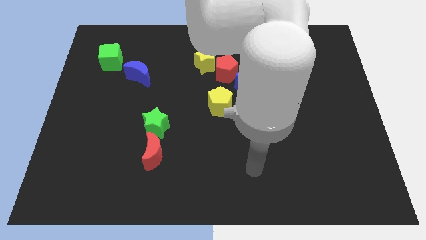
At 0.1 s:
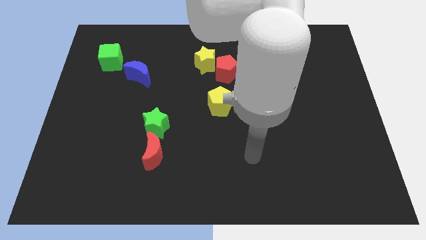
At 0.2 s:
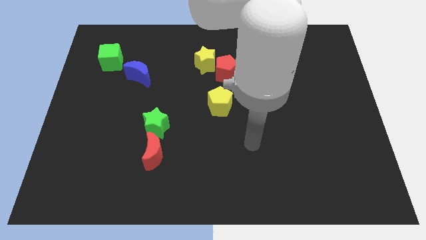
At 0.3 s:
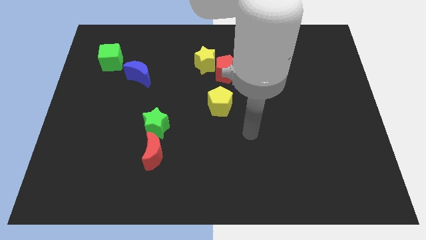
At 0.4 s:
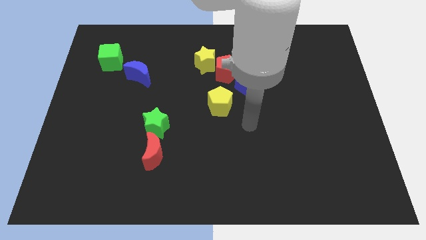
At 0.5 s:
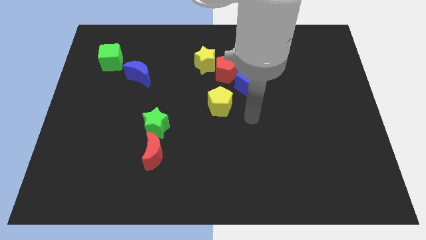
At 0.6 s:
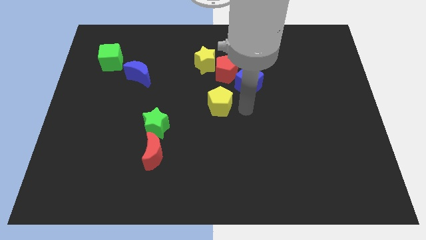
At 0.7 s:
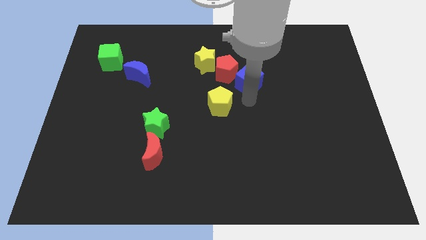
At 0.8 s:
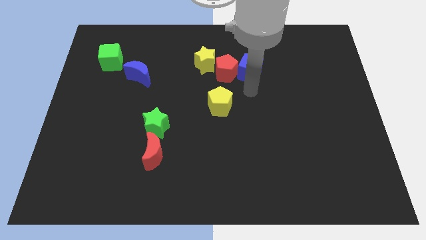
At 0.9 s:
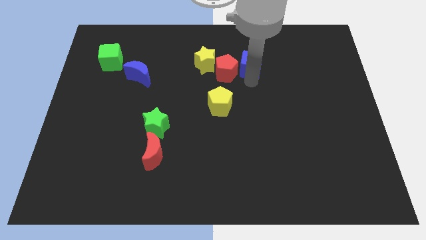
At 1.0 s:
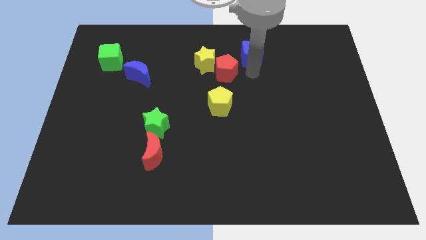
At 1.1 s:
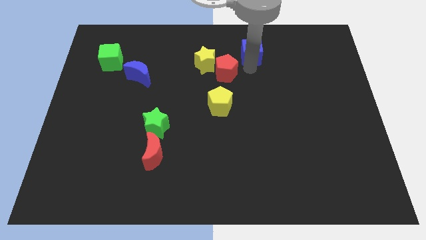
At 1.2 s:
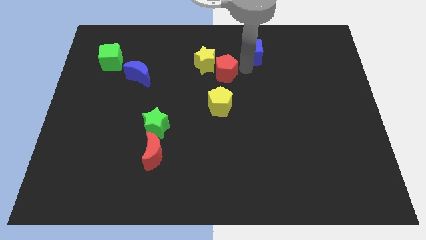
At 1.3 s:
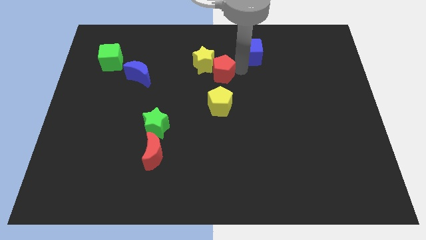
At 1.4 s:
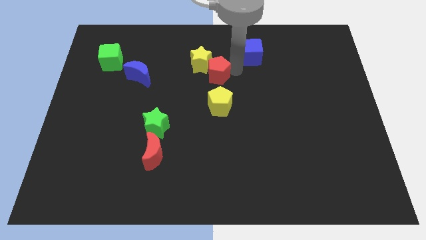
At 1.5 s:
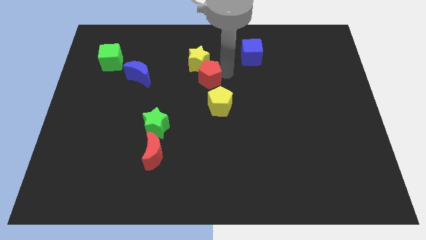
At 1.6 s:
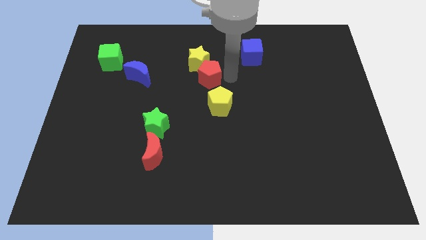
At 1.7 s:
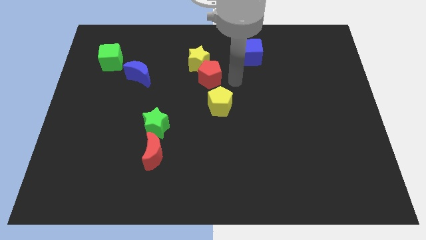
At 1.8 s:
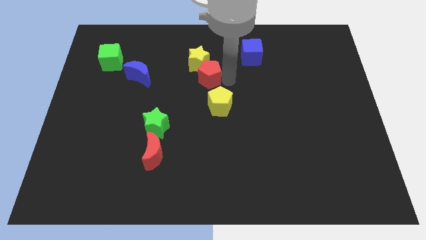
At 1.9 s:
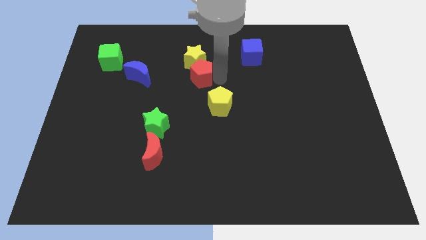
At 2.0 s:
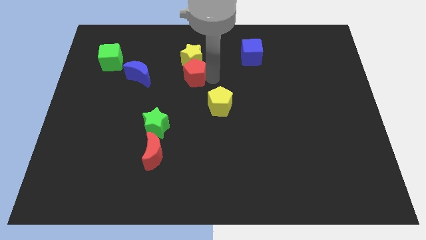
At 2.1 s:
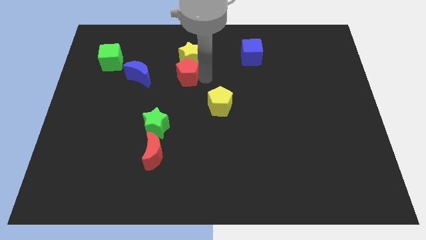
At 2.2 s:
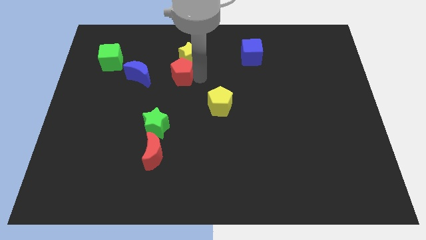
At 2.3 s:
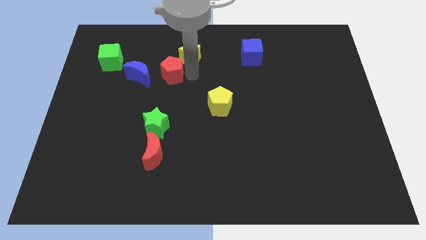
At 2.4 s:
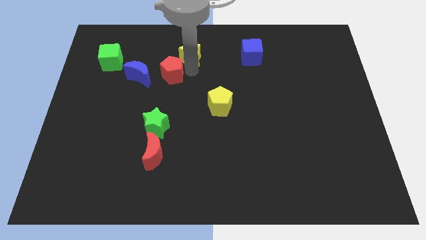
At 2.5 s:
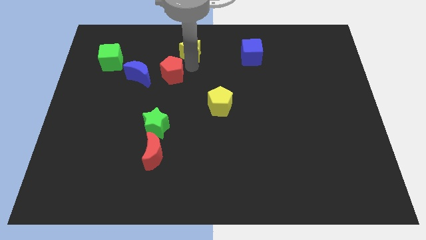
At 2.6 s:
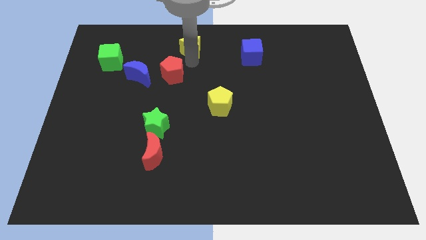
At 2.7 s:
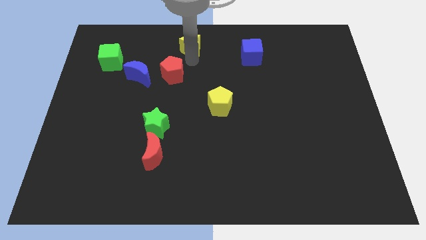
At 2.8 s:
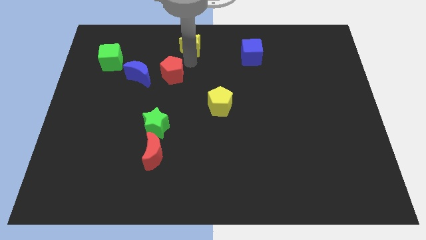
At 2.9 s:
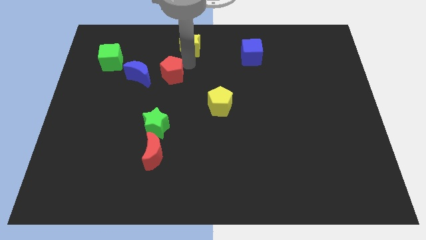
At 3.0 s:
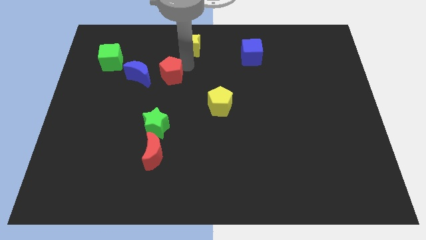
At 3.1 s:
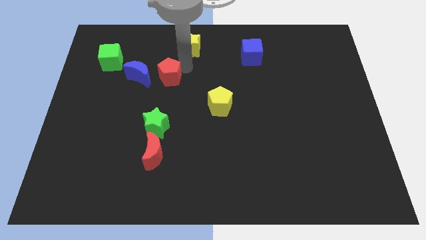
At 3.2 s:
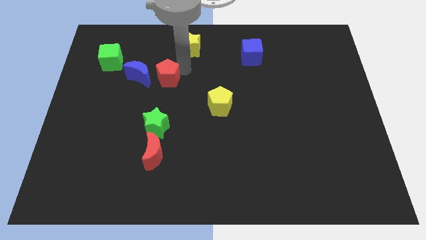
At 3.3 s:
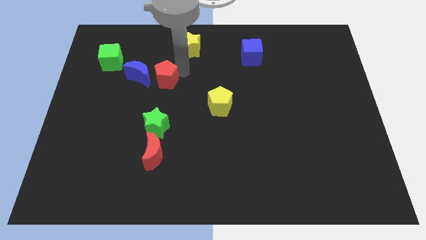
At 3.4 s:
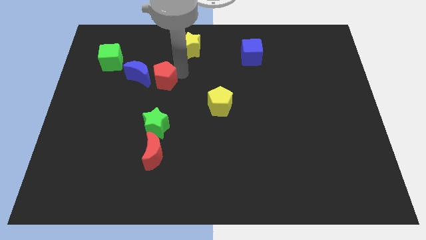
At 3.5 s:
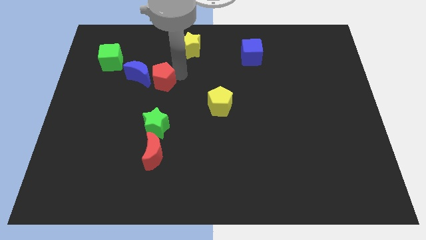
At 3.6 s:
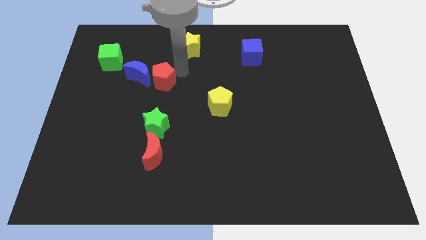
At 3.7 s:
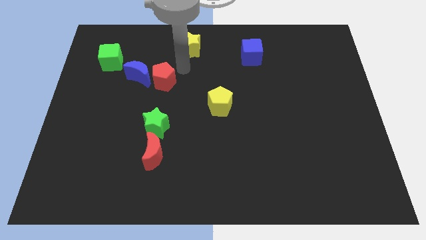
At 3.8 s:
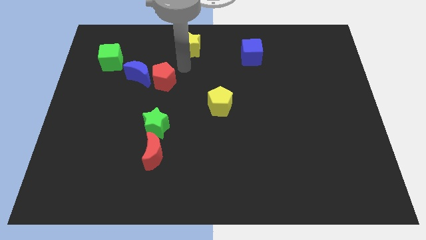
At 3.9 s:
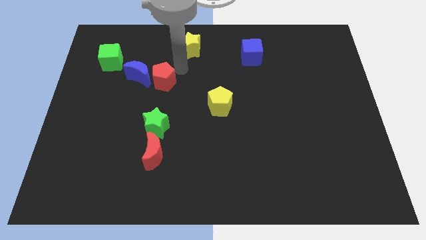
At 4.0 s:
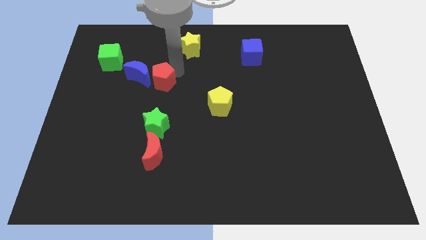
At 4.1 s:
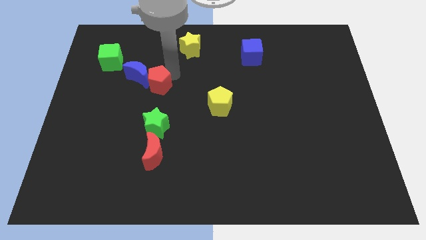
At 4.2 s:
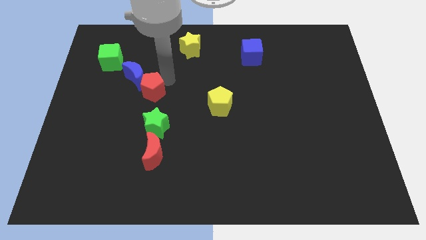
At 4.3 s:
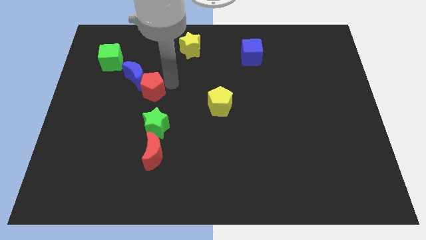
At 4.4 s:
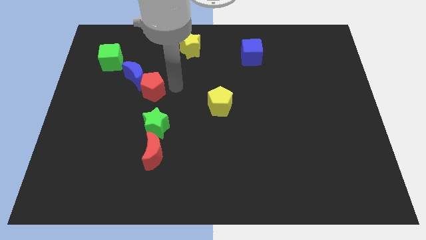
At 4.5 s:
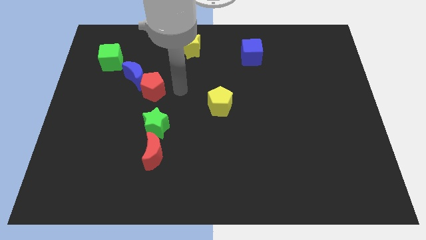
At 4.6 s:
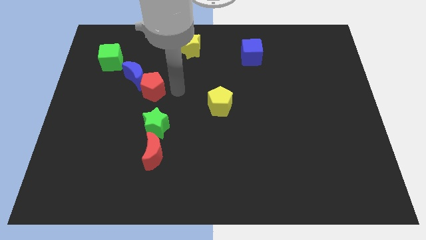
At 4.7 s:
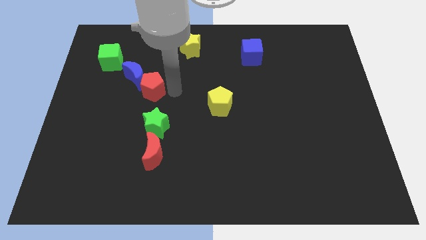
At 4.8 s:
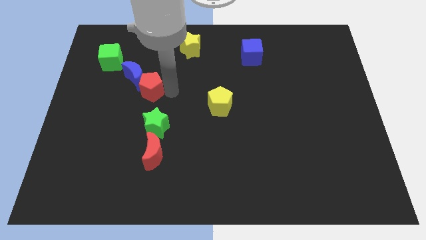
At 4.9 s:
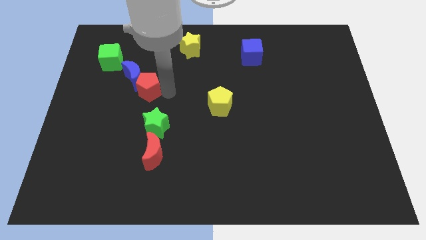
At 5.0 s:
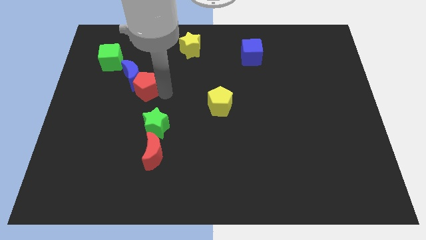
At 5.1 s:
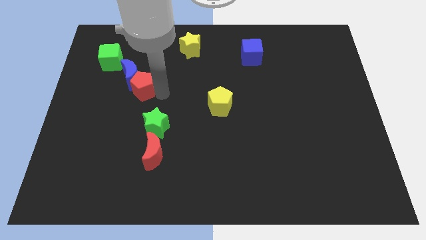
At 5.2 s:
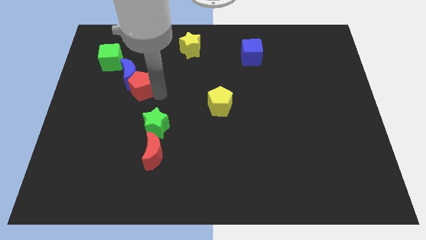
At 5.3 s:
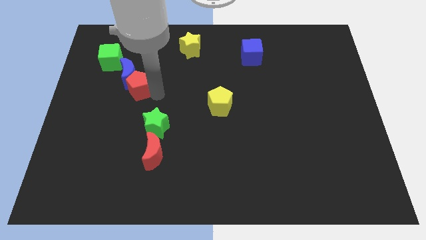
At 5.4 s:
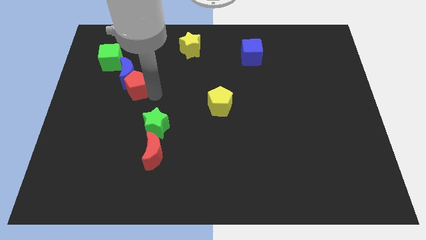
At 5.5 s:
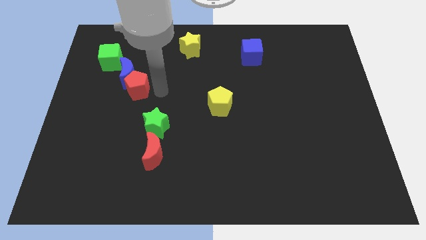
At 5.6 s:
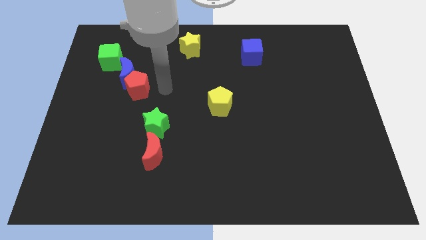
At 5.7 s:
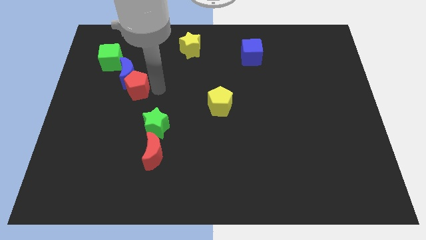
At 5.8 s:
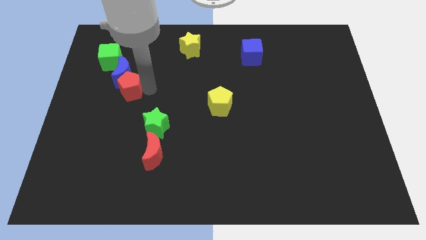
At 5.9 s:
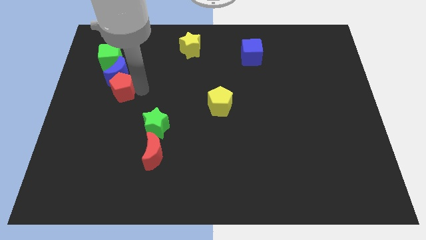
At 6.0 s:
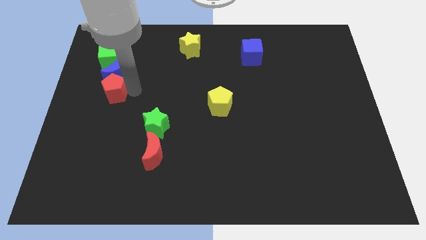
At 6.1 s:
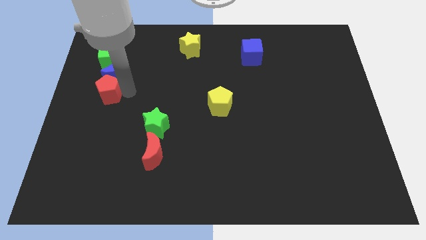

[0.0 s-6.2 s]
push the red pentagon to the left side
